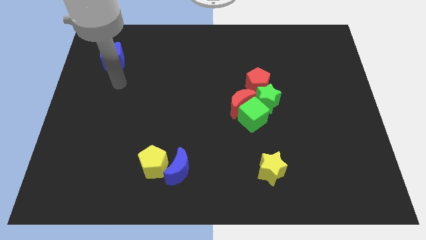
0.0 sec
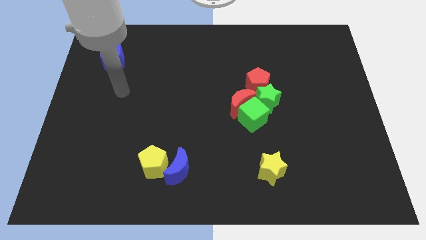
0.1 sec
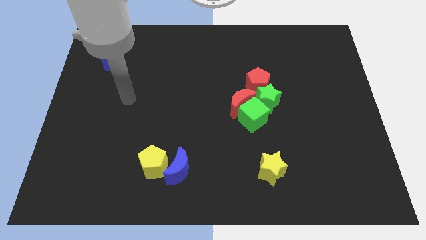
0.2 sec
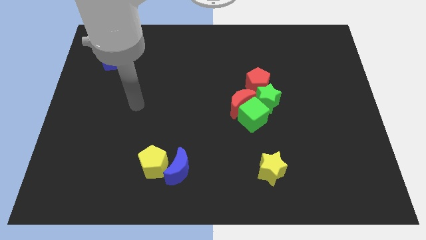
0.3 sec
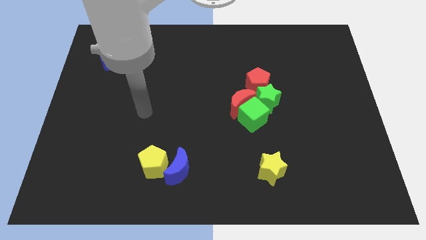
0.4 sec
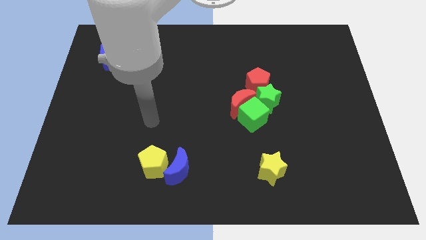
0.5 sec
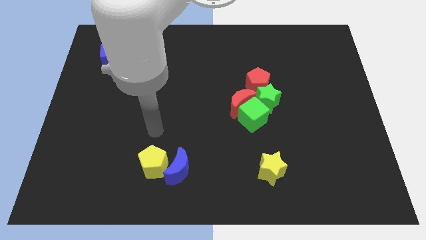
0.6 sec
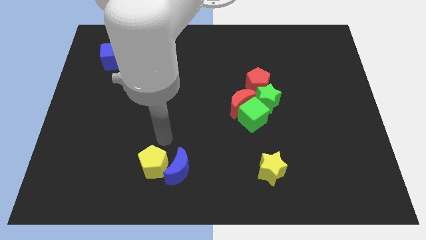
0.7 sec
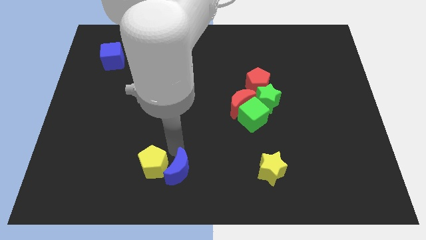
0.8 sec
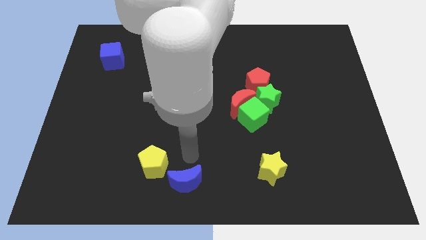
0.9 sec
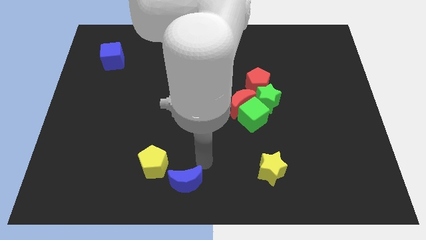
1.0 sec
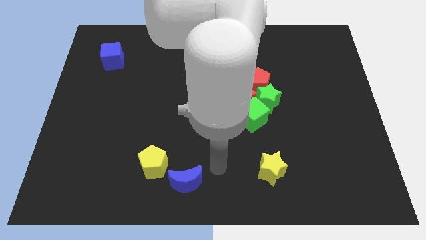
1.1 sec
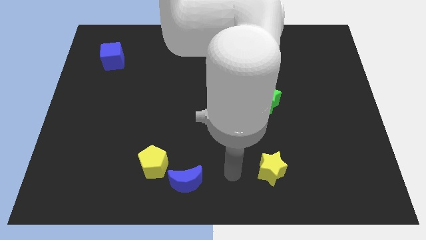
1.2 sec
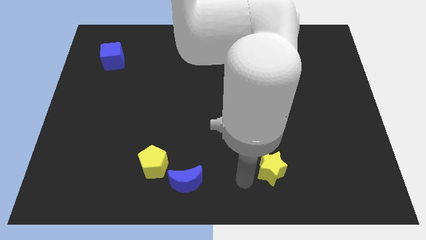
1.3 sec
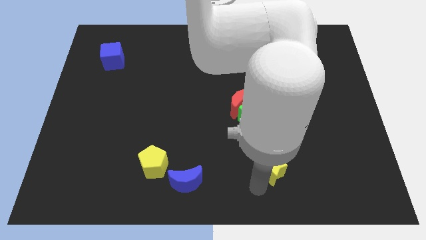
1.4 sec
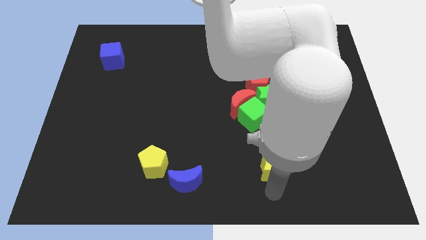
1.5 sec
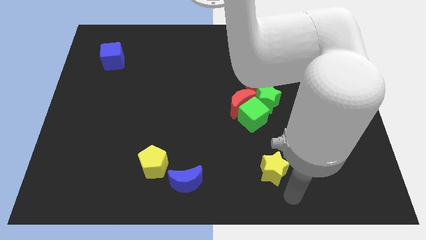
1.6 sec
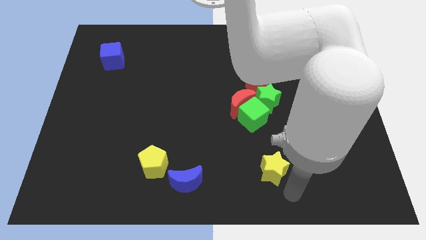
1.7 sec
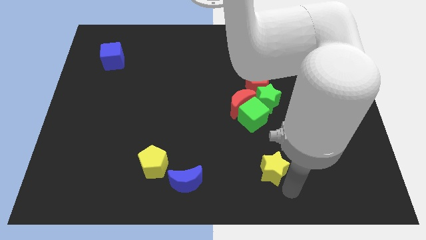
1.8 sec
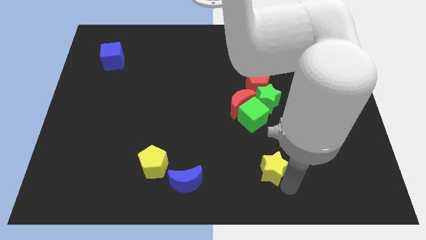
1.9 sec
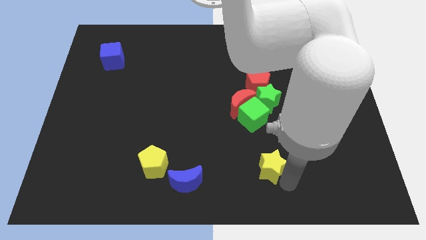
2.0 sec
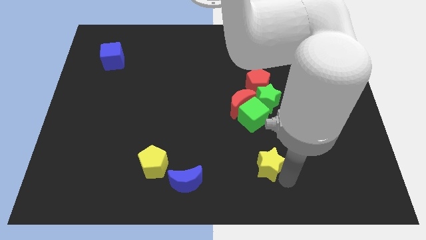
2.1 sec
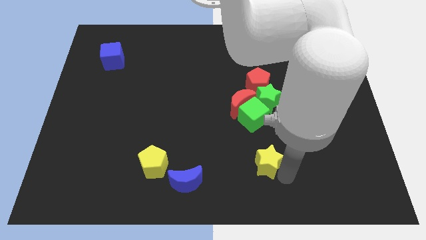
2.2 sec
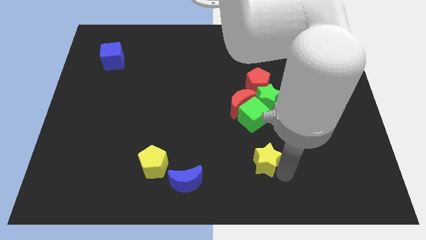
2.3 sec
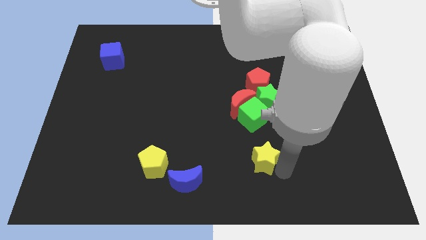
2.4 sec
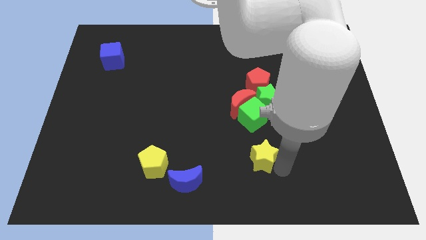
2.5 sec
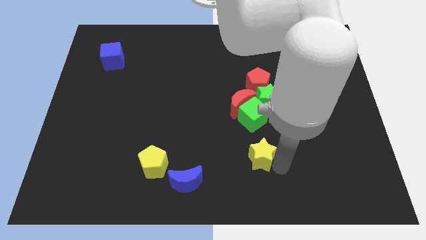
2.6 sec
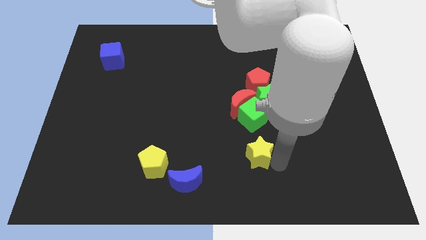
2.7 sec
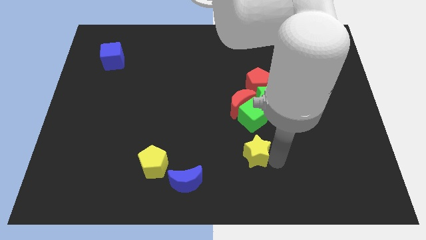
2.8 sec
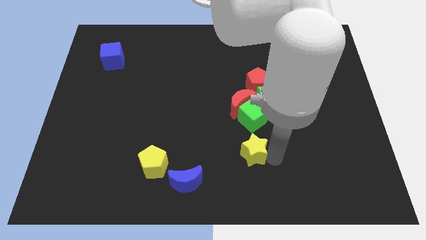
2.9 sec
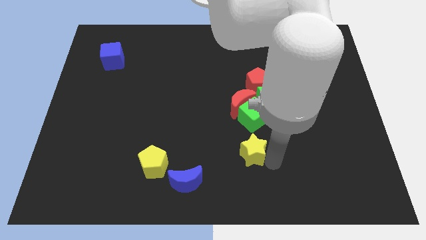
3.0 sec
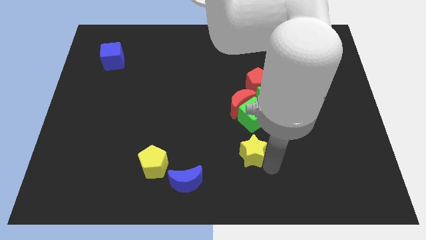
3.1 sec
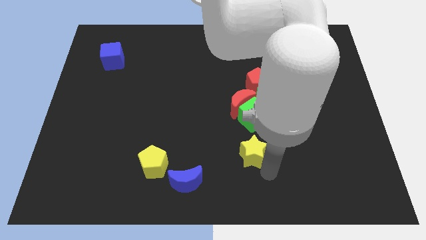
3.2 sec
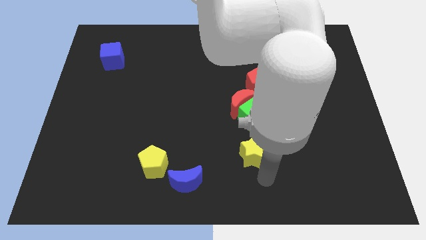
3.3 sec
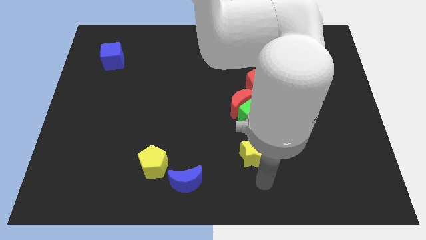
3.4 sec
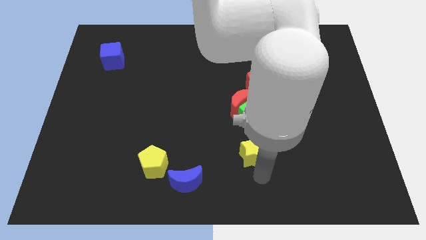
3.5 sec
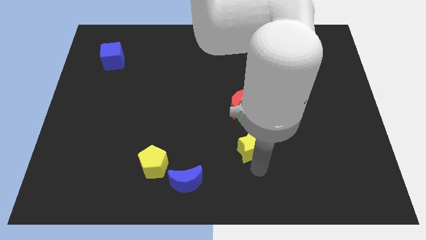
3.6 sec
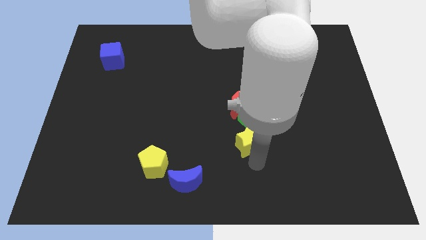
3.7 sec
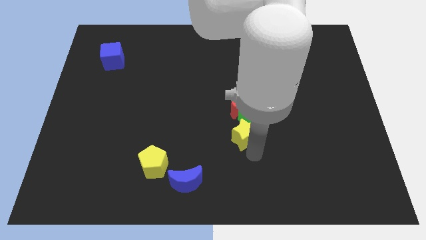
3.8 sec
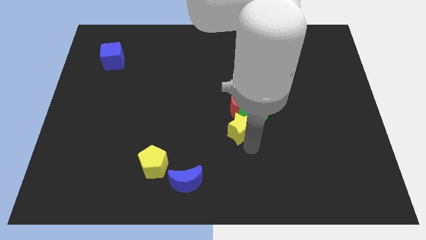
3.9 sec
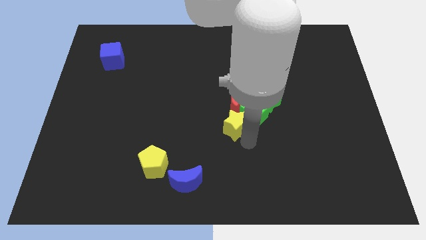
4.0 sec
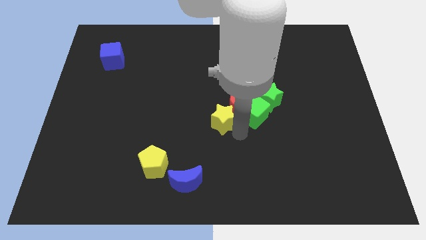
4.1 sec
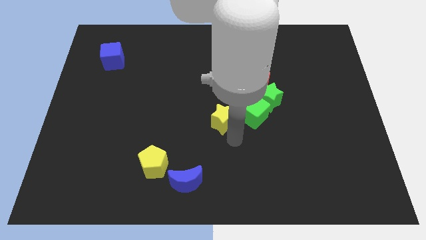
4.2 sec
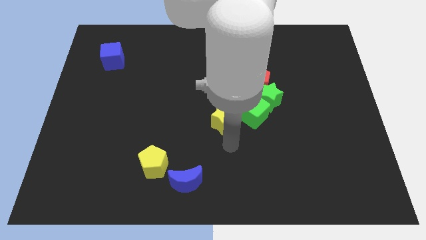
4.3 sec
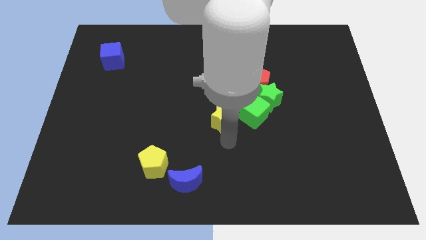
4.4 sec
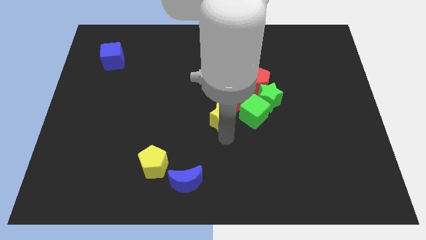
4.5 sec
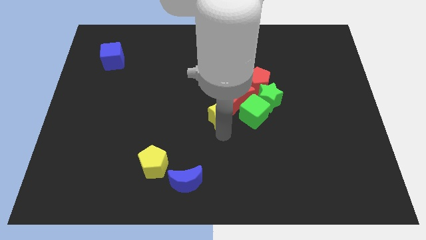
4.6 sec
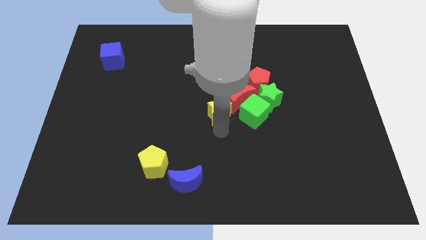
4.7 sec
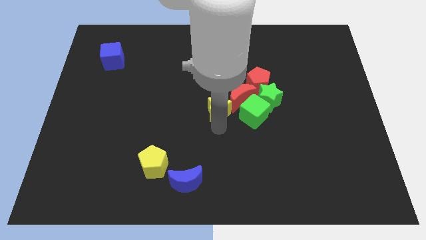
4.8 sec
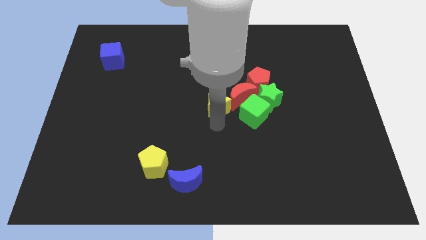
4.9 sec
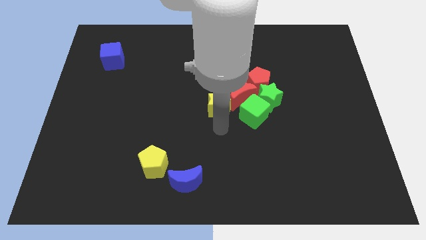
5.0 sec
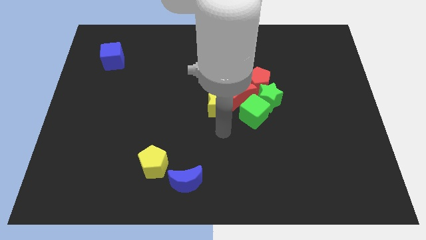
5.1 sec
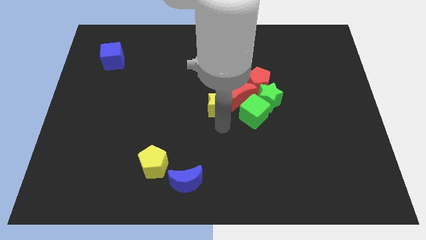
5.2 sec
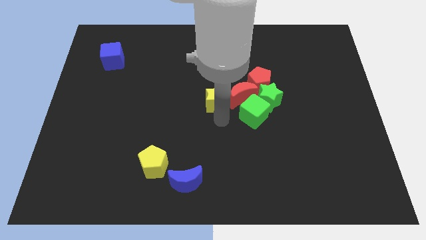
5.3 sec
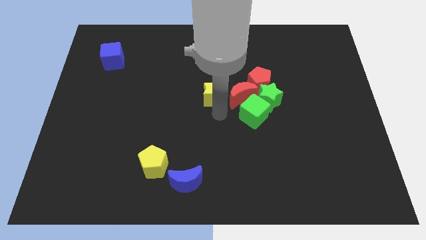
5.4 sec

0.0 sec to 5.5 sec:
push the yellow star just left of the red pentagon

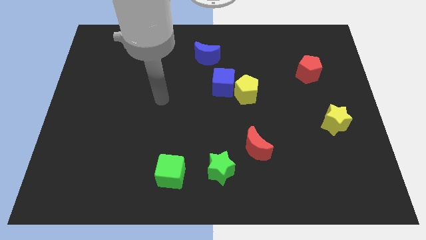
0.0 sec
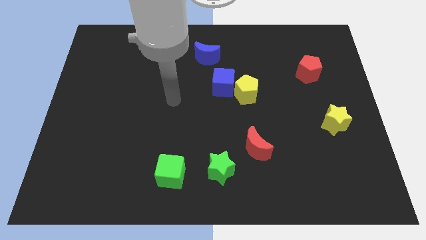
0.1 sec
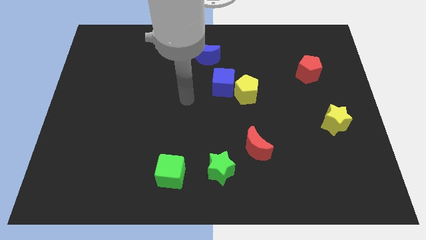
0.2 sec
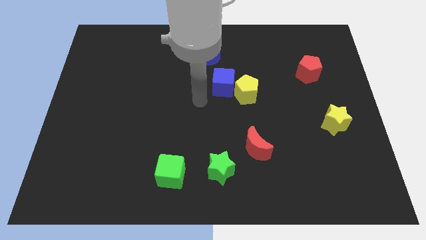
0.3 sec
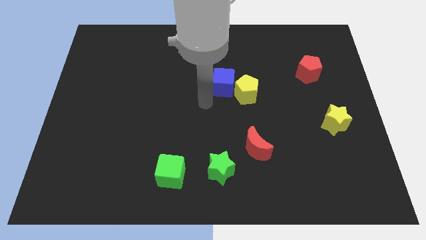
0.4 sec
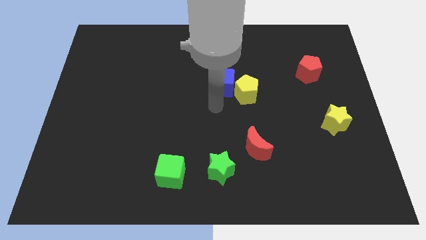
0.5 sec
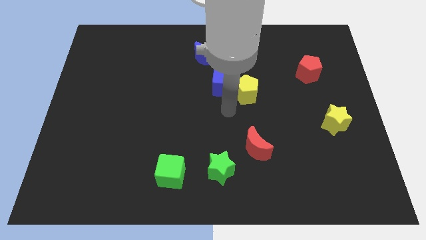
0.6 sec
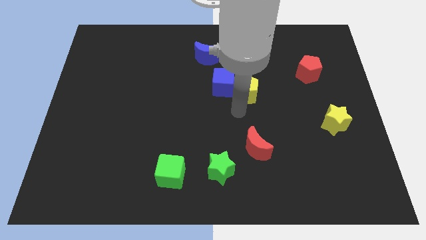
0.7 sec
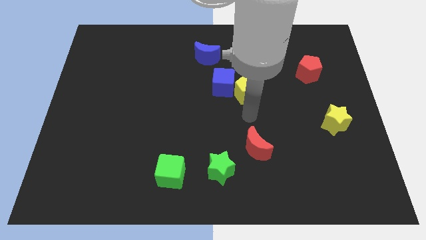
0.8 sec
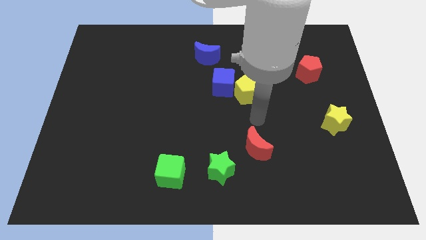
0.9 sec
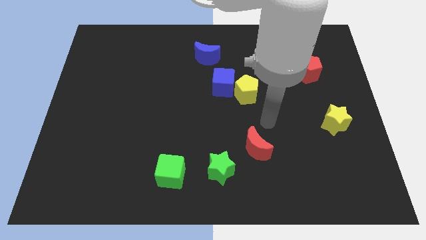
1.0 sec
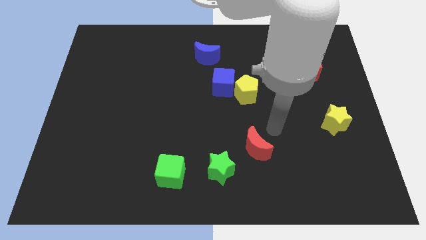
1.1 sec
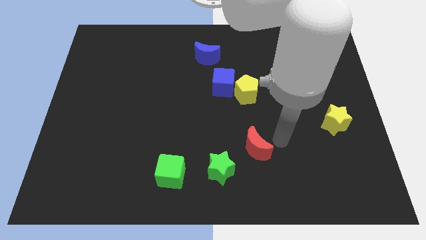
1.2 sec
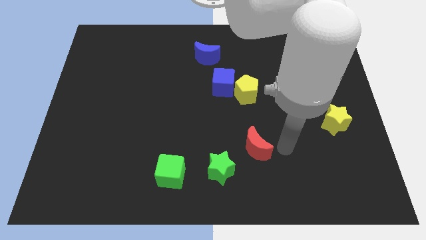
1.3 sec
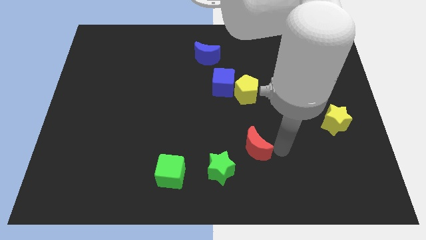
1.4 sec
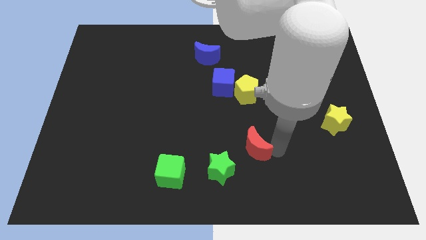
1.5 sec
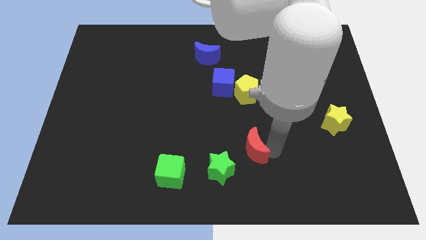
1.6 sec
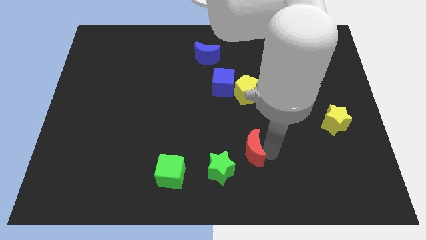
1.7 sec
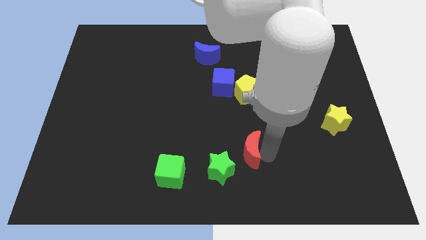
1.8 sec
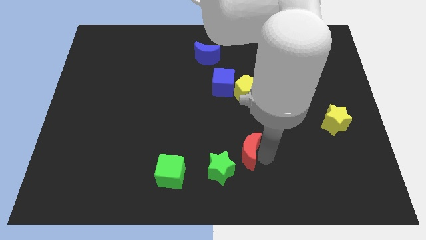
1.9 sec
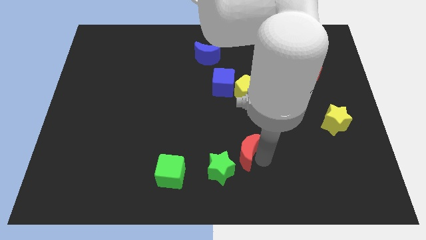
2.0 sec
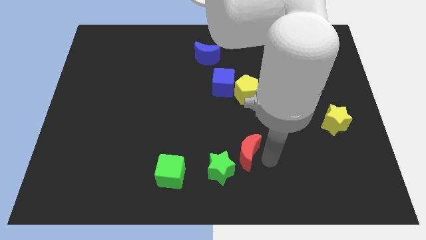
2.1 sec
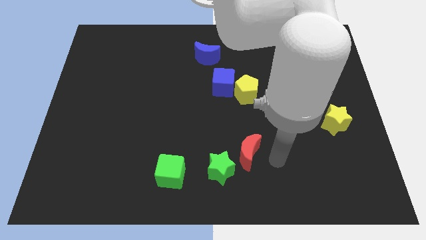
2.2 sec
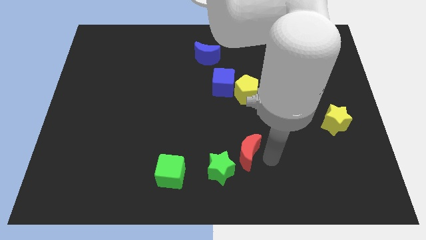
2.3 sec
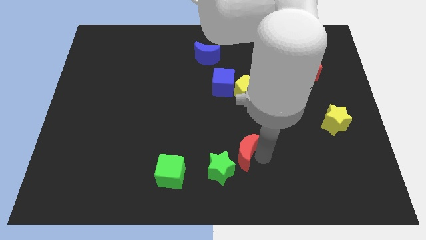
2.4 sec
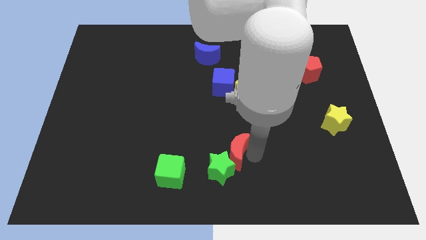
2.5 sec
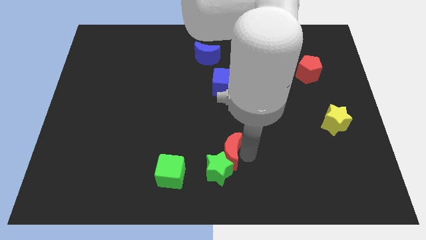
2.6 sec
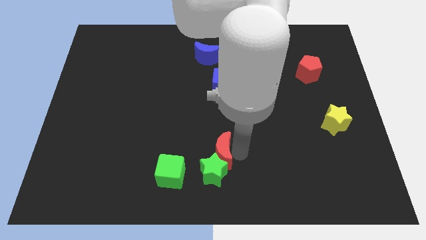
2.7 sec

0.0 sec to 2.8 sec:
push the red moon diagonally up and to the right of the green cube
